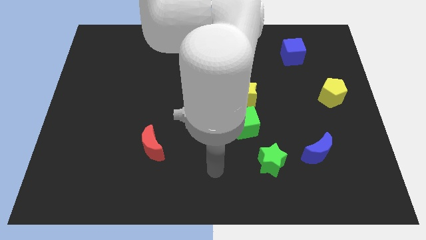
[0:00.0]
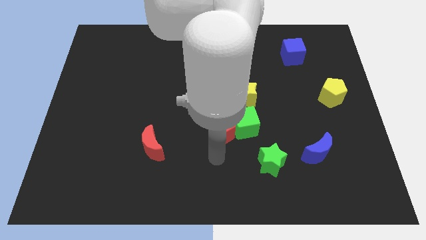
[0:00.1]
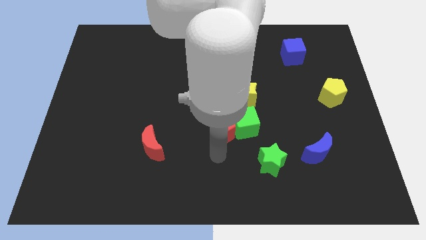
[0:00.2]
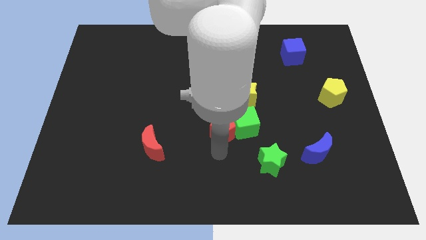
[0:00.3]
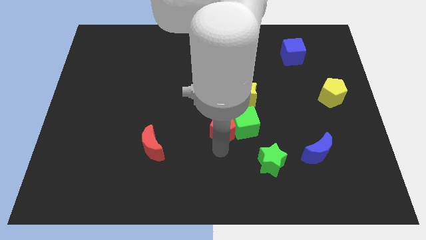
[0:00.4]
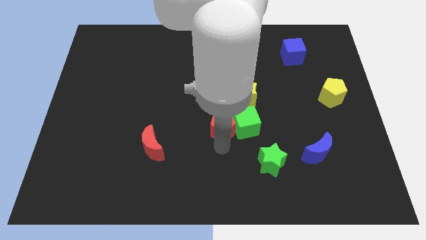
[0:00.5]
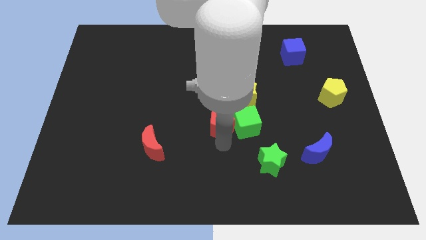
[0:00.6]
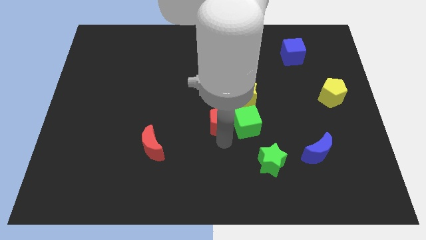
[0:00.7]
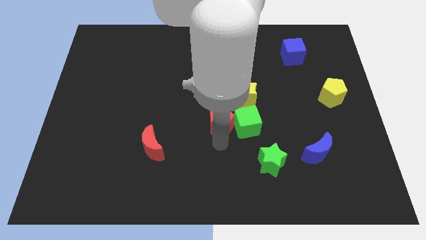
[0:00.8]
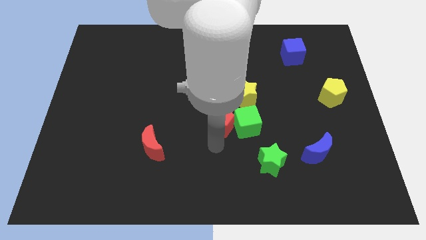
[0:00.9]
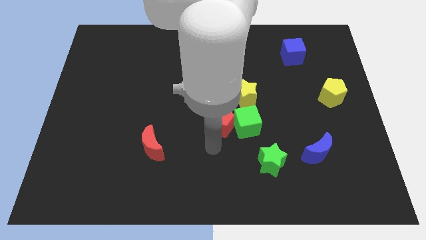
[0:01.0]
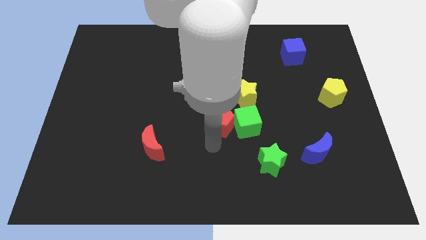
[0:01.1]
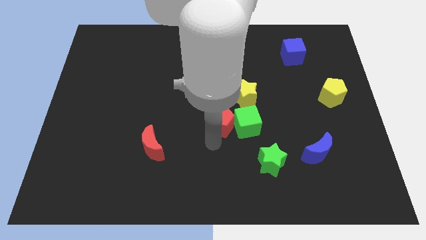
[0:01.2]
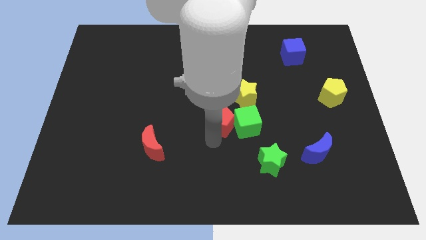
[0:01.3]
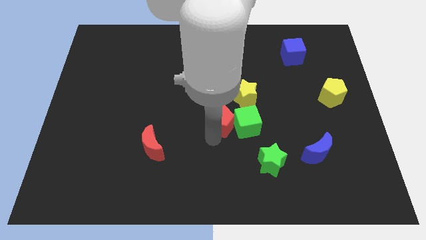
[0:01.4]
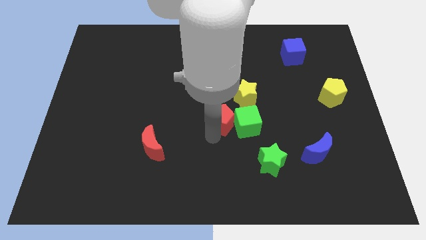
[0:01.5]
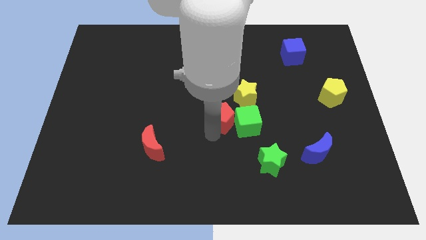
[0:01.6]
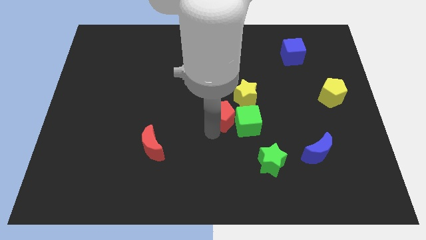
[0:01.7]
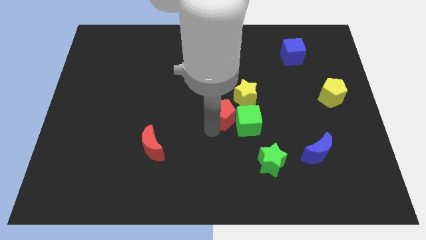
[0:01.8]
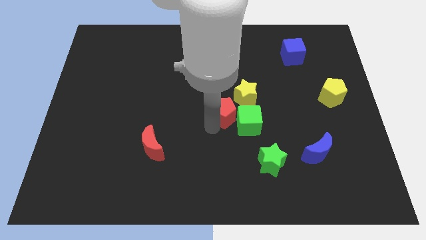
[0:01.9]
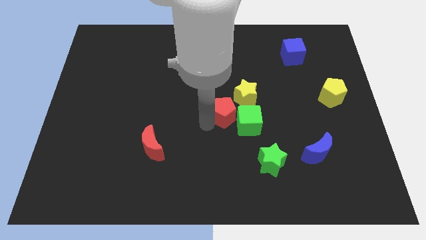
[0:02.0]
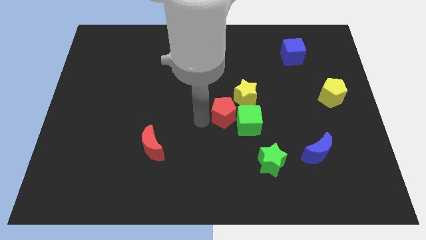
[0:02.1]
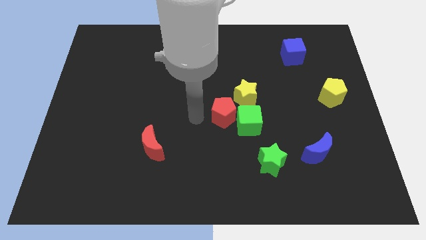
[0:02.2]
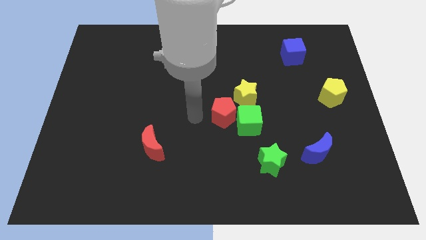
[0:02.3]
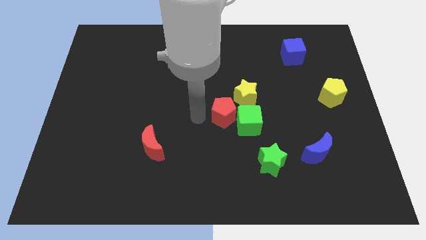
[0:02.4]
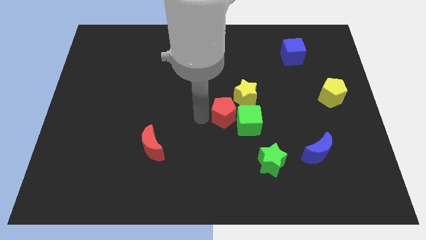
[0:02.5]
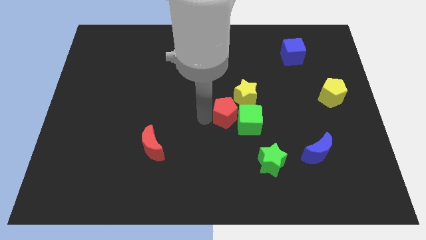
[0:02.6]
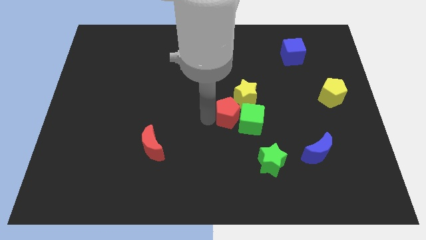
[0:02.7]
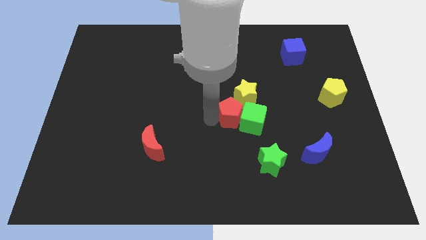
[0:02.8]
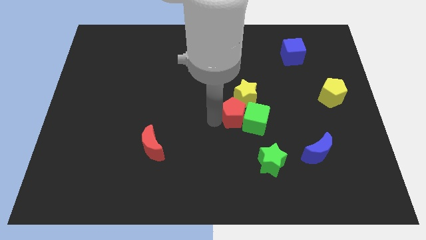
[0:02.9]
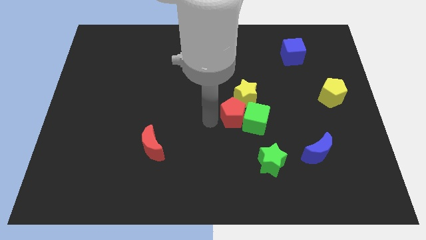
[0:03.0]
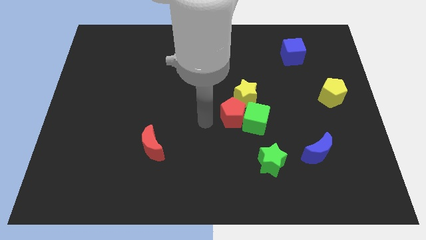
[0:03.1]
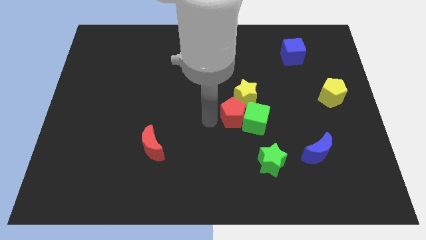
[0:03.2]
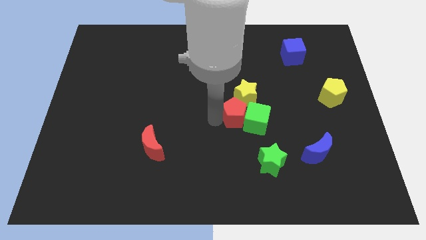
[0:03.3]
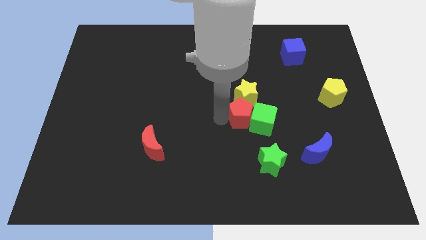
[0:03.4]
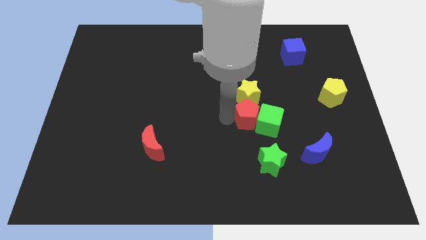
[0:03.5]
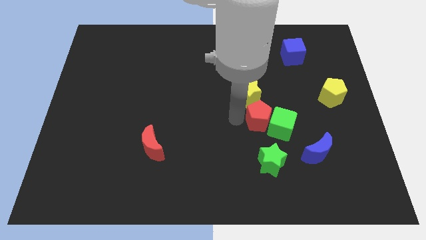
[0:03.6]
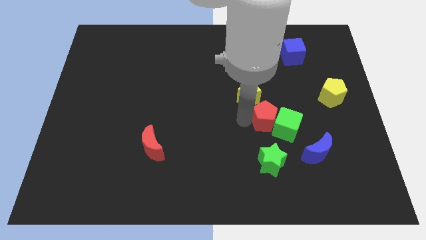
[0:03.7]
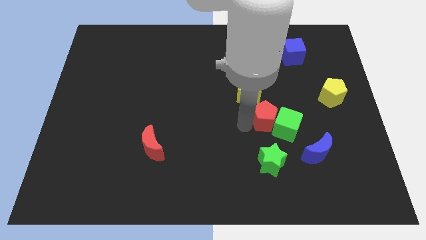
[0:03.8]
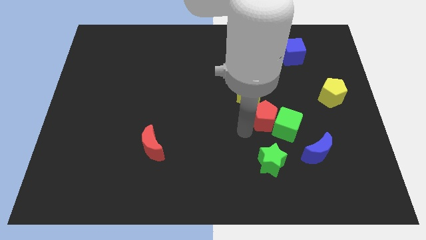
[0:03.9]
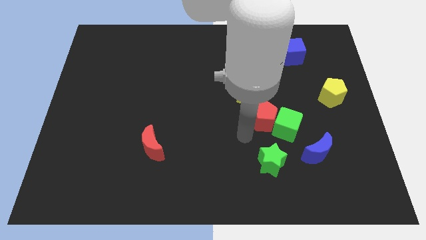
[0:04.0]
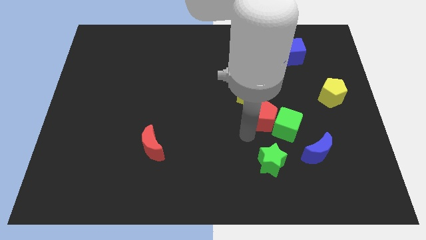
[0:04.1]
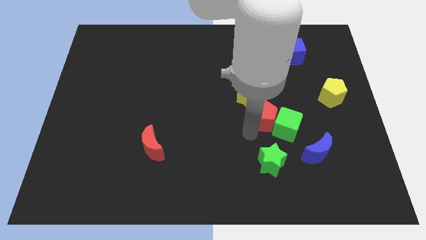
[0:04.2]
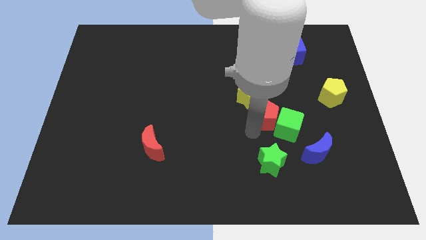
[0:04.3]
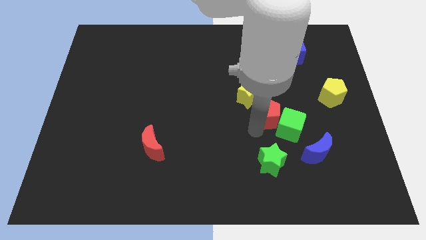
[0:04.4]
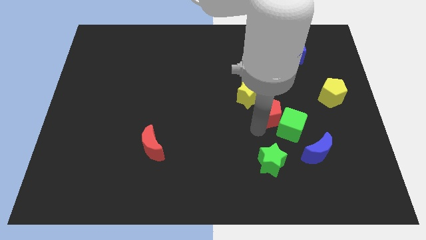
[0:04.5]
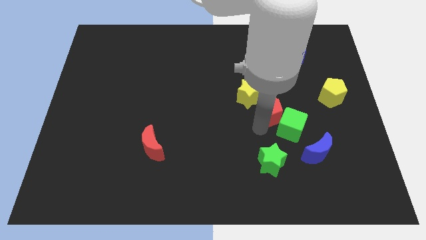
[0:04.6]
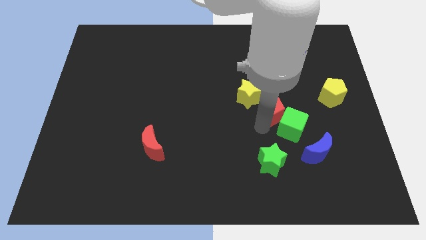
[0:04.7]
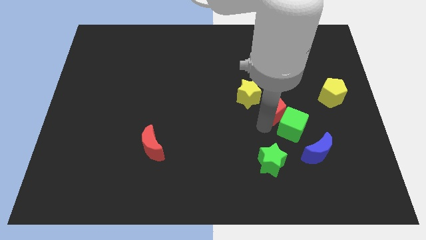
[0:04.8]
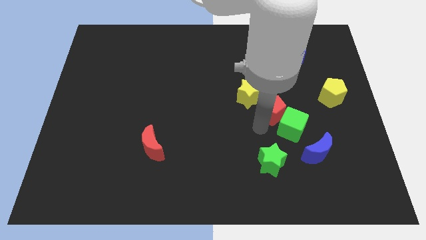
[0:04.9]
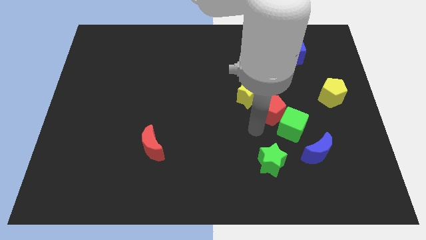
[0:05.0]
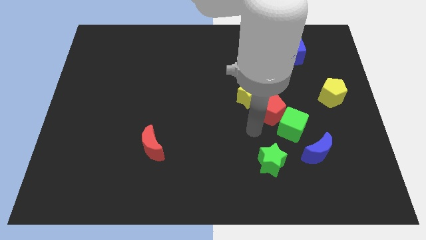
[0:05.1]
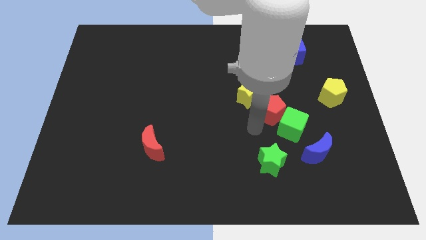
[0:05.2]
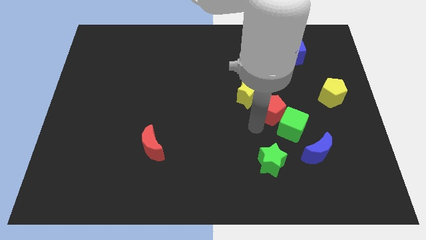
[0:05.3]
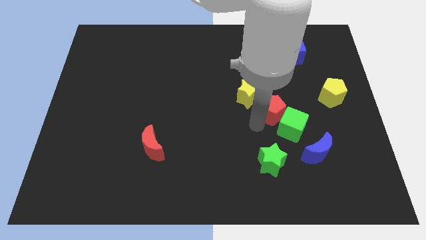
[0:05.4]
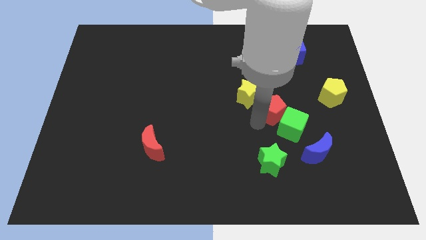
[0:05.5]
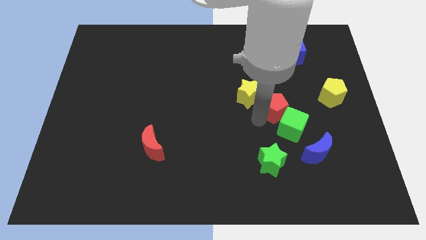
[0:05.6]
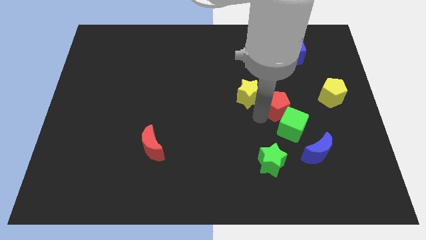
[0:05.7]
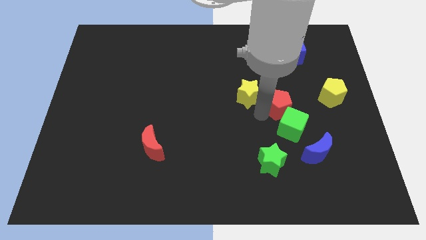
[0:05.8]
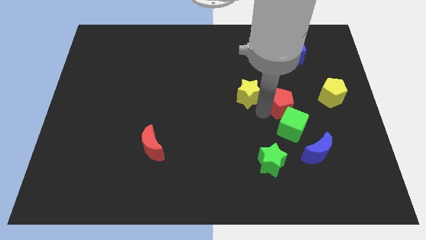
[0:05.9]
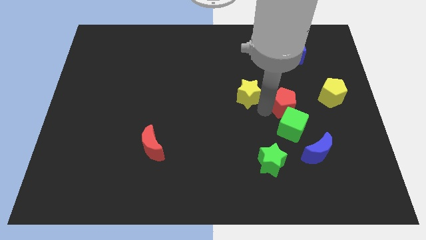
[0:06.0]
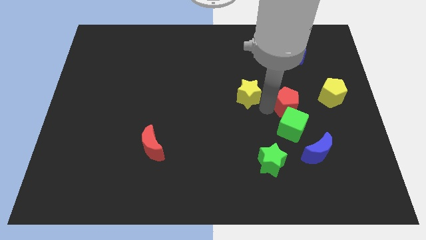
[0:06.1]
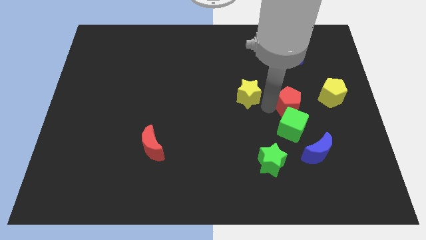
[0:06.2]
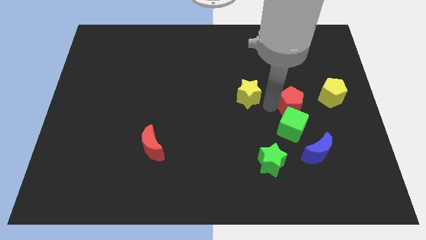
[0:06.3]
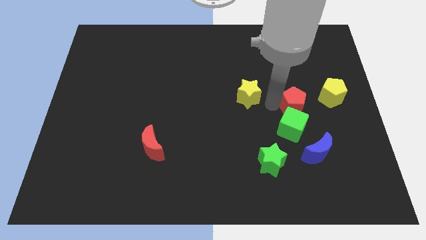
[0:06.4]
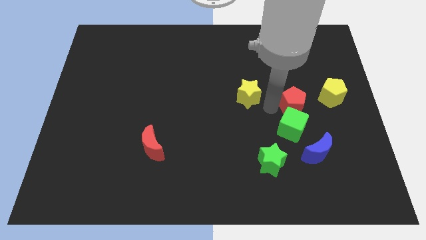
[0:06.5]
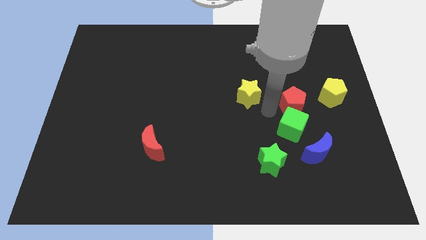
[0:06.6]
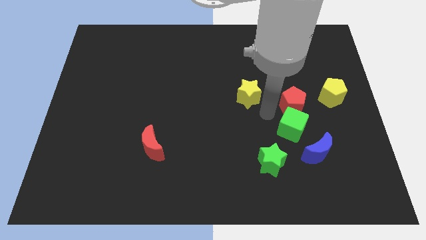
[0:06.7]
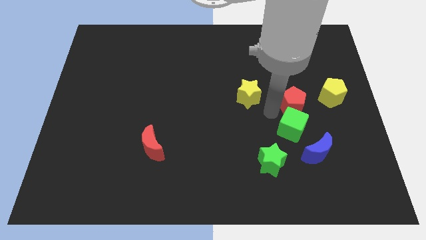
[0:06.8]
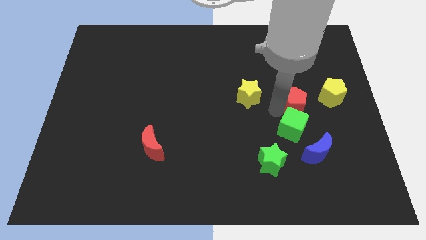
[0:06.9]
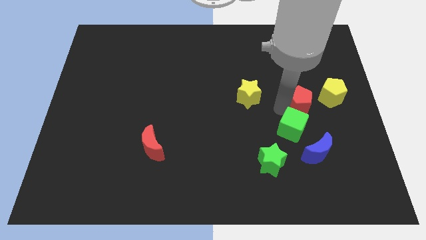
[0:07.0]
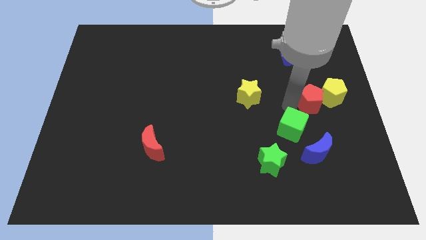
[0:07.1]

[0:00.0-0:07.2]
slide the red pentagon towards the yellow pentagon
